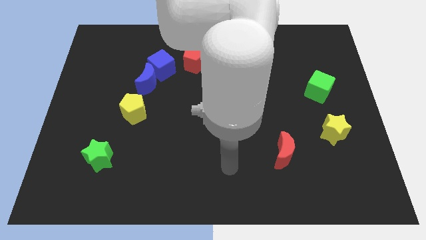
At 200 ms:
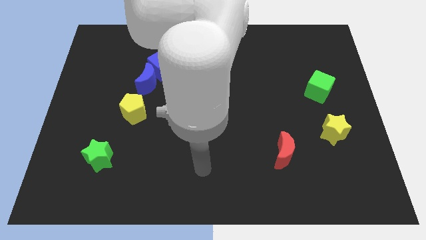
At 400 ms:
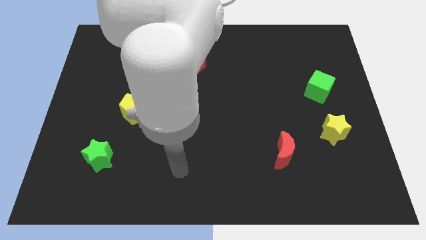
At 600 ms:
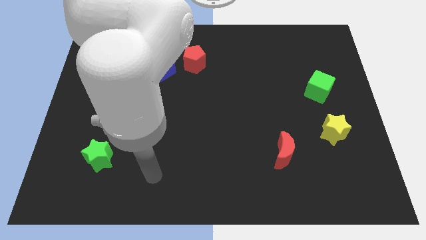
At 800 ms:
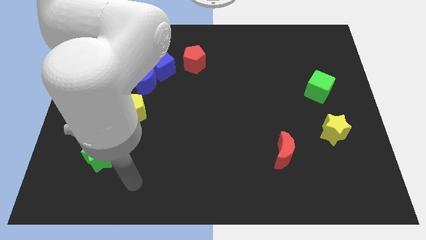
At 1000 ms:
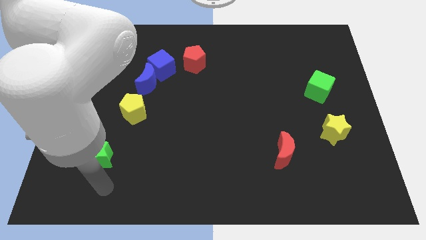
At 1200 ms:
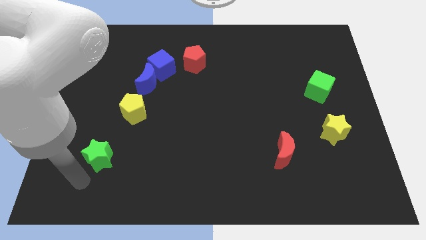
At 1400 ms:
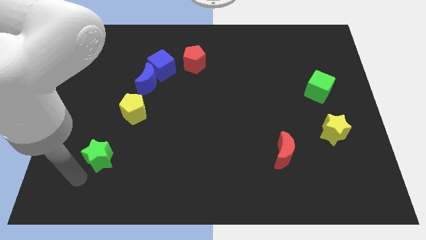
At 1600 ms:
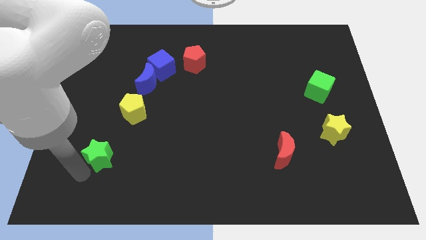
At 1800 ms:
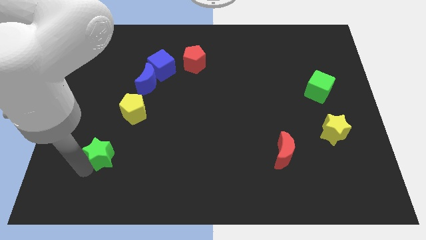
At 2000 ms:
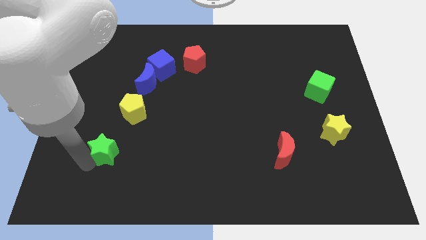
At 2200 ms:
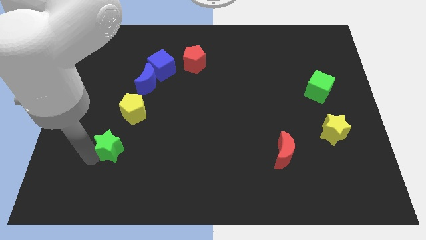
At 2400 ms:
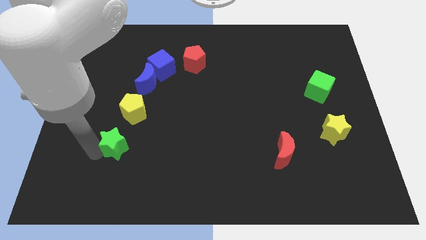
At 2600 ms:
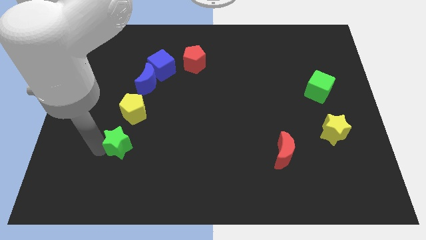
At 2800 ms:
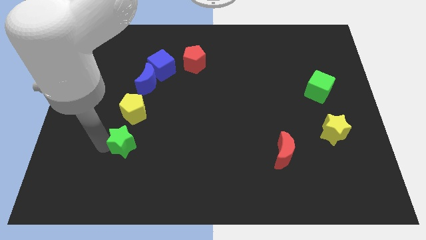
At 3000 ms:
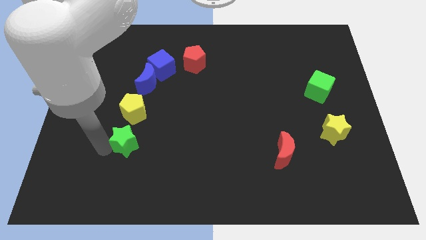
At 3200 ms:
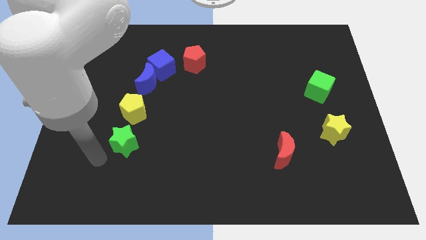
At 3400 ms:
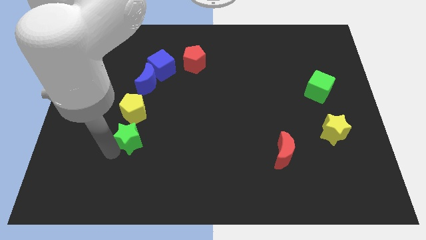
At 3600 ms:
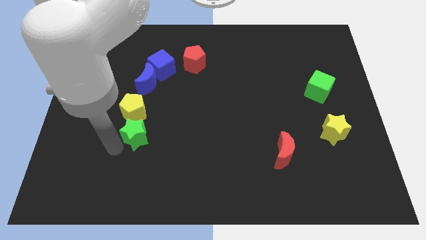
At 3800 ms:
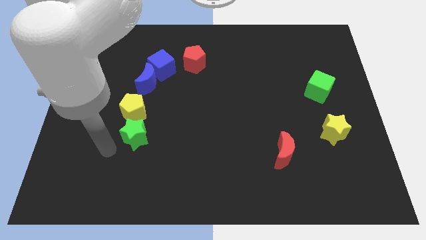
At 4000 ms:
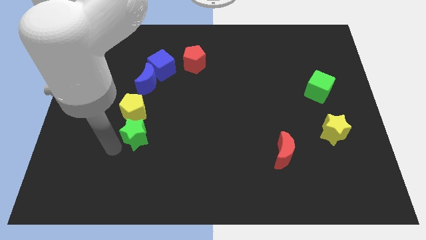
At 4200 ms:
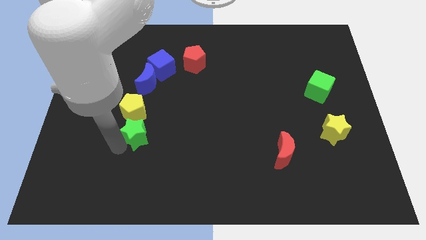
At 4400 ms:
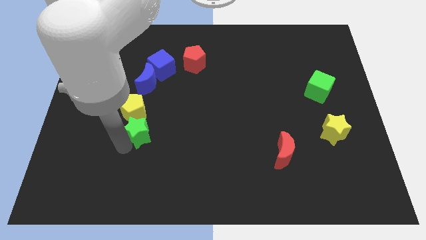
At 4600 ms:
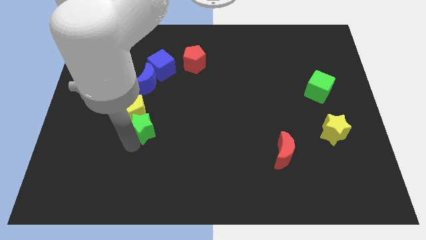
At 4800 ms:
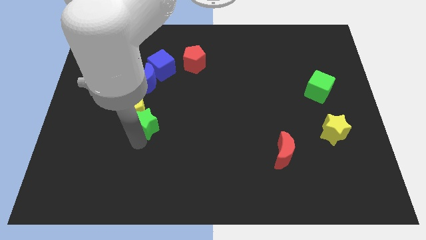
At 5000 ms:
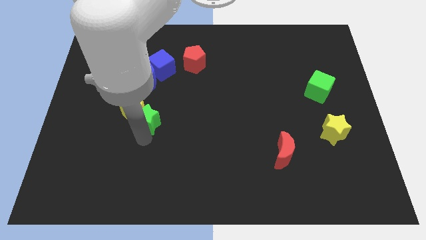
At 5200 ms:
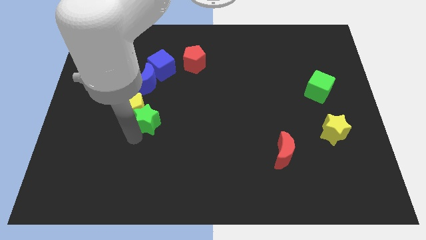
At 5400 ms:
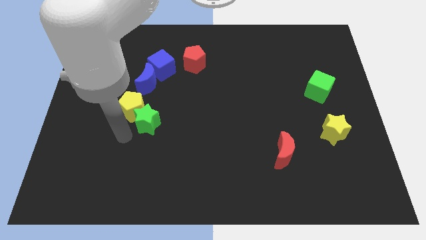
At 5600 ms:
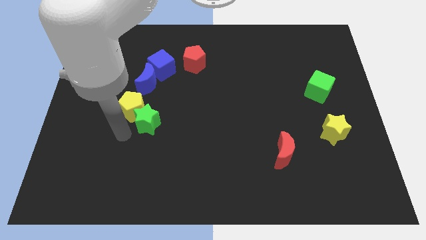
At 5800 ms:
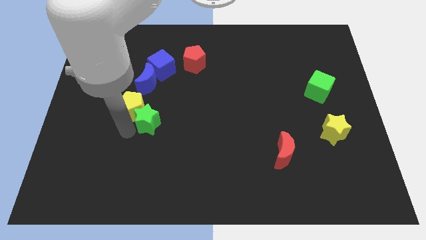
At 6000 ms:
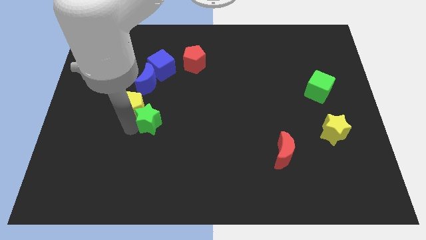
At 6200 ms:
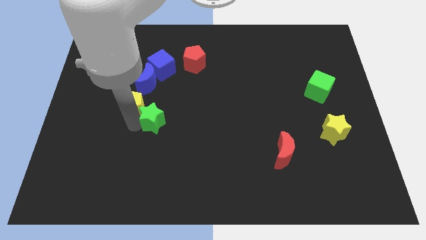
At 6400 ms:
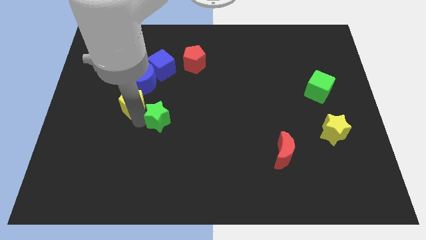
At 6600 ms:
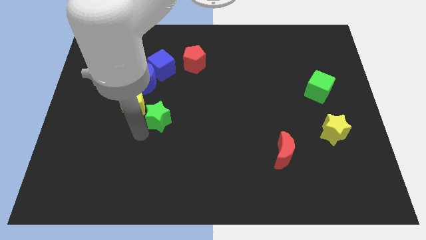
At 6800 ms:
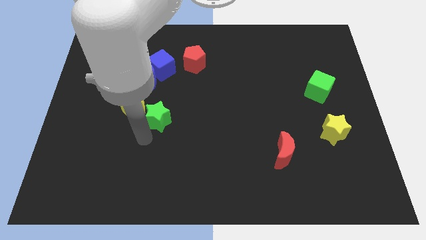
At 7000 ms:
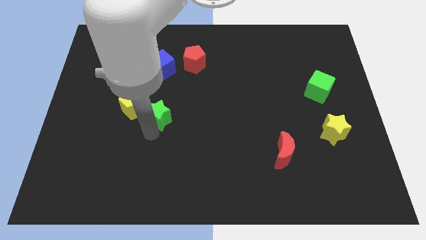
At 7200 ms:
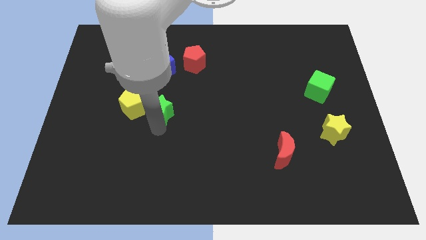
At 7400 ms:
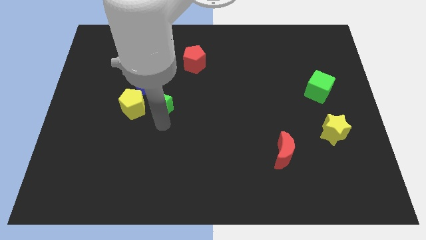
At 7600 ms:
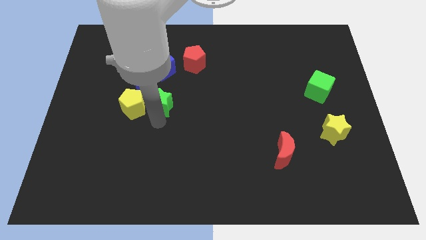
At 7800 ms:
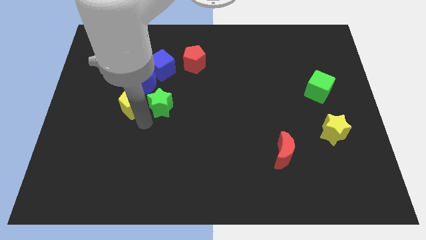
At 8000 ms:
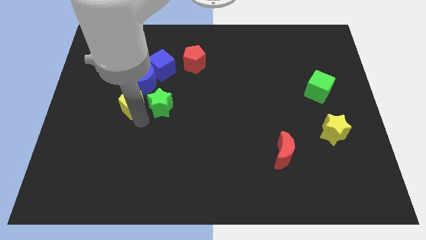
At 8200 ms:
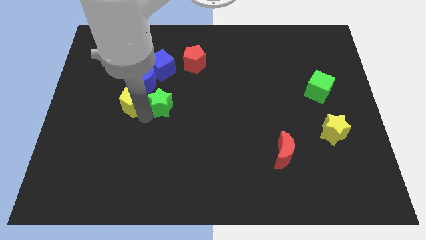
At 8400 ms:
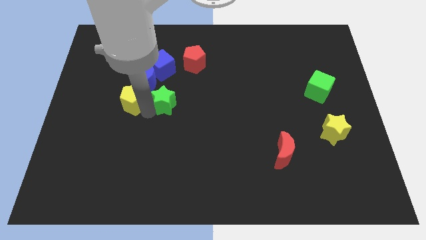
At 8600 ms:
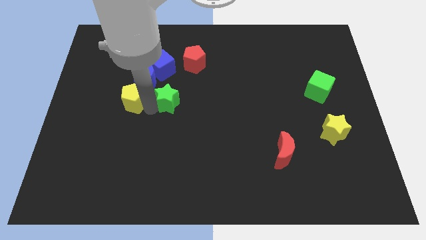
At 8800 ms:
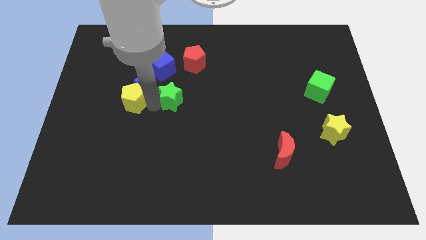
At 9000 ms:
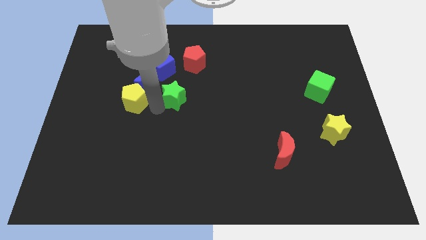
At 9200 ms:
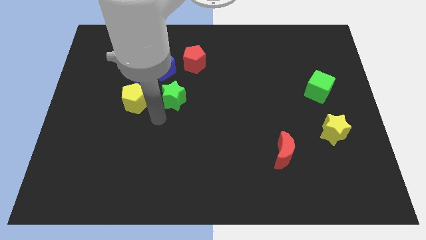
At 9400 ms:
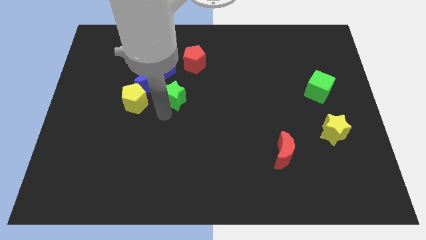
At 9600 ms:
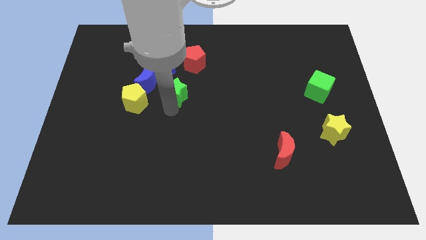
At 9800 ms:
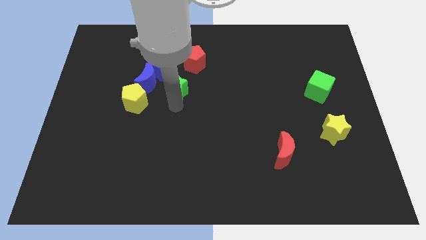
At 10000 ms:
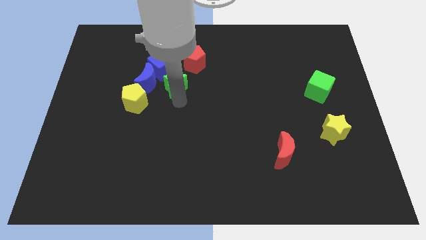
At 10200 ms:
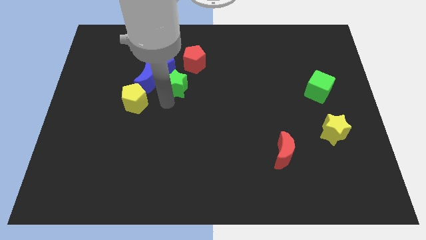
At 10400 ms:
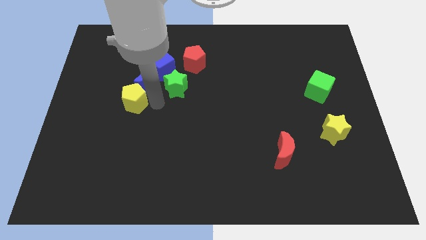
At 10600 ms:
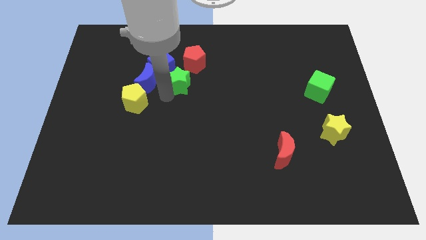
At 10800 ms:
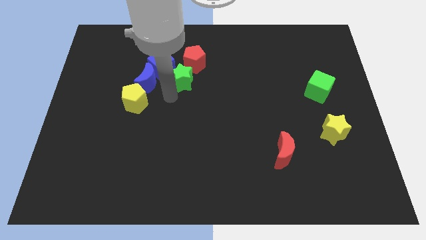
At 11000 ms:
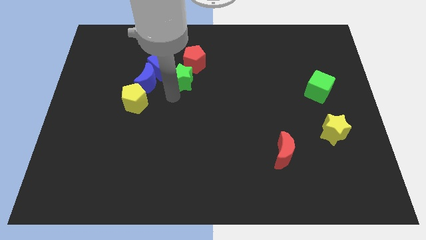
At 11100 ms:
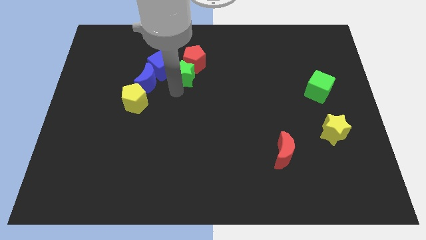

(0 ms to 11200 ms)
move the green star next to the red pentagon

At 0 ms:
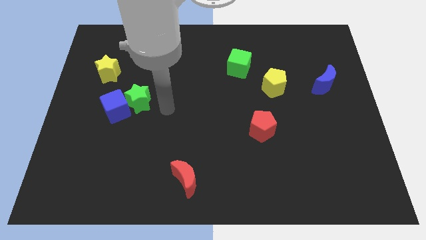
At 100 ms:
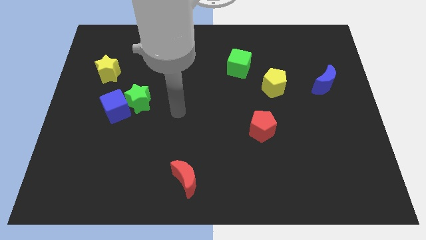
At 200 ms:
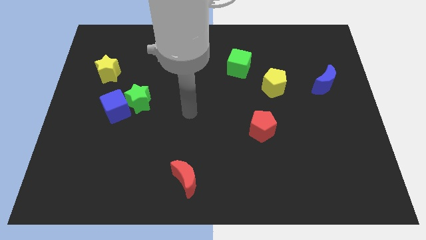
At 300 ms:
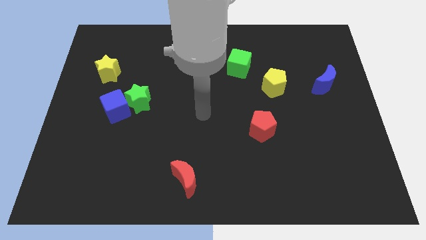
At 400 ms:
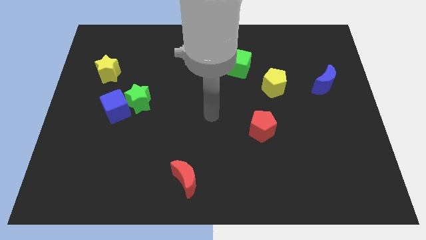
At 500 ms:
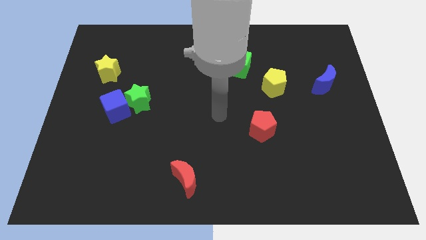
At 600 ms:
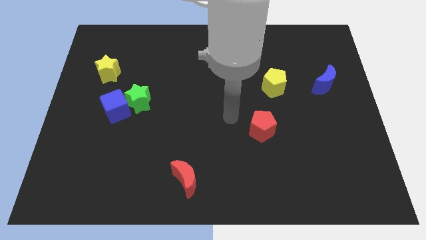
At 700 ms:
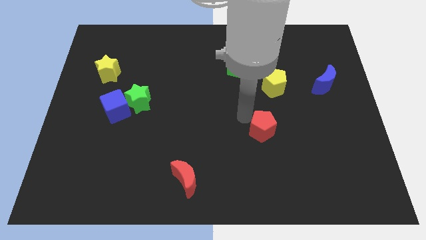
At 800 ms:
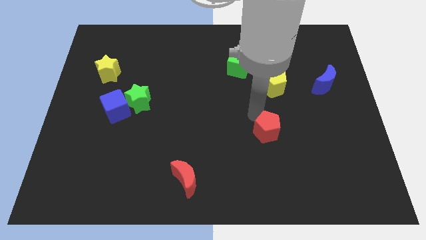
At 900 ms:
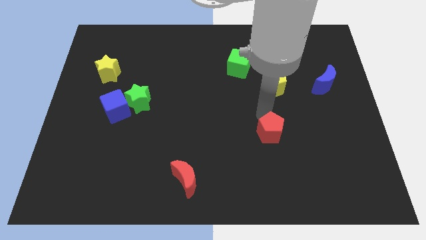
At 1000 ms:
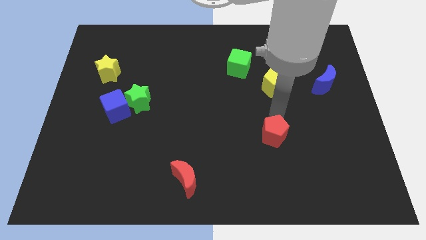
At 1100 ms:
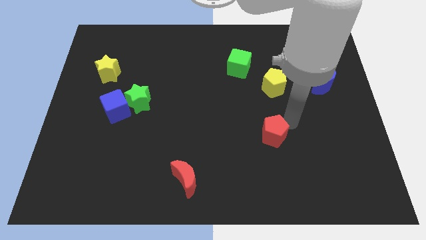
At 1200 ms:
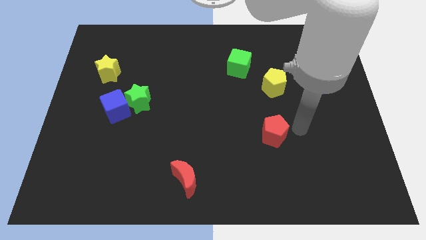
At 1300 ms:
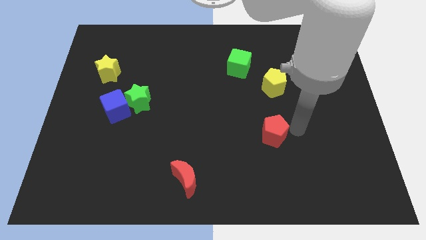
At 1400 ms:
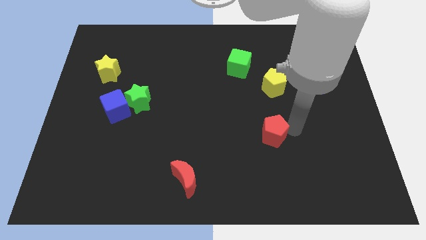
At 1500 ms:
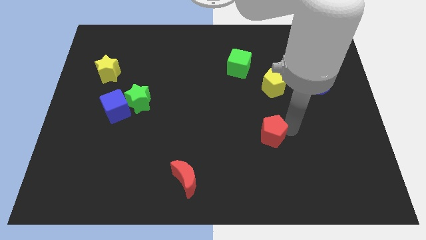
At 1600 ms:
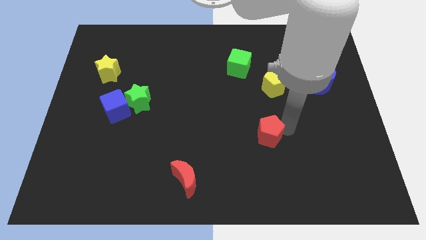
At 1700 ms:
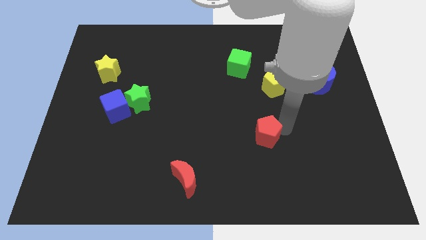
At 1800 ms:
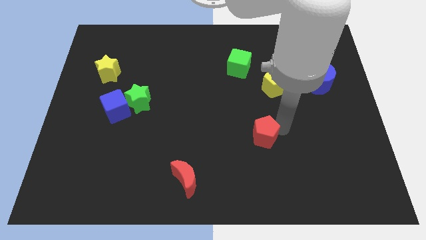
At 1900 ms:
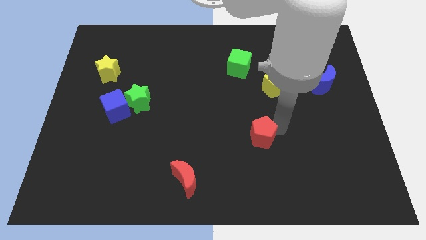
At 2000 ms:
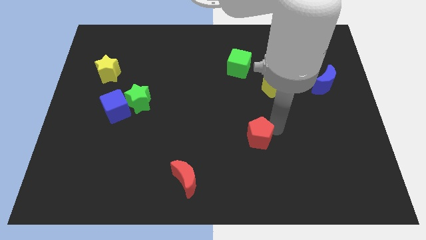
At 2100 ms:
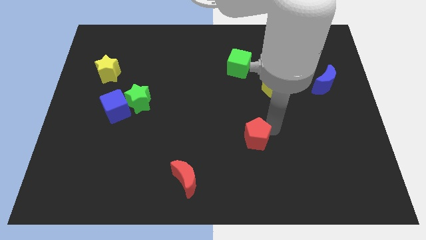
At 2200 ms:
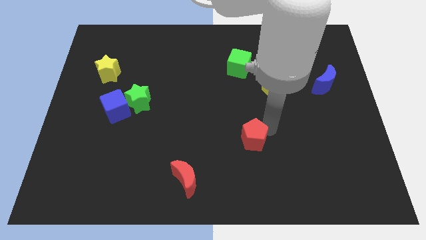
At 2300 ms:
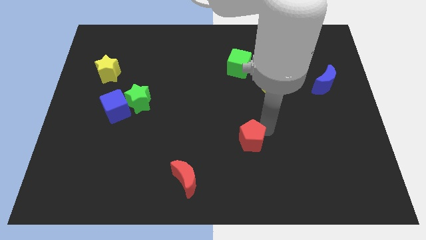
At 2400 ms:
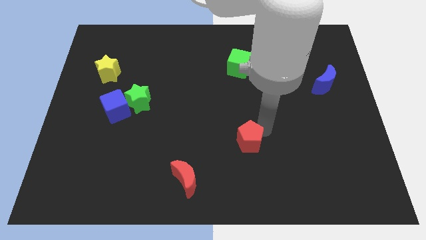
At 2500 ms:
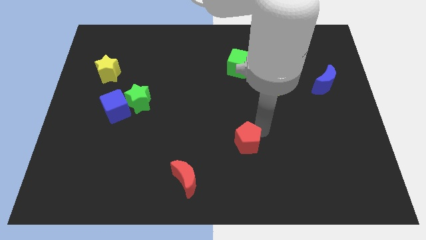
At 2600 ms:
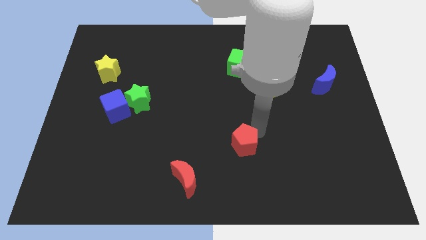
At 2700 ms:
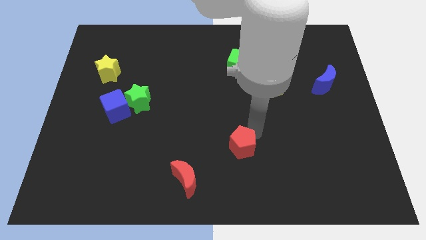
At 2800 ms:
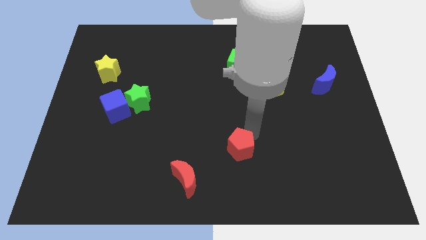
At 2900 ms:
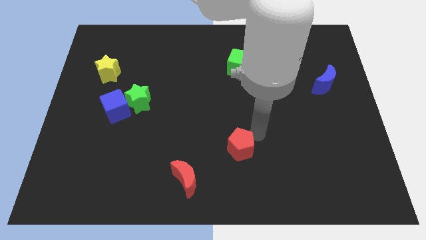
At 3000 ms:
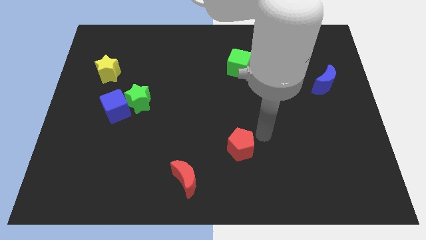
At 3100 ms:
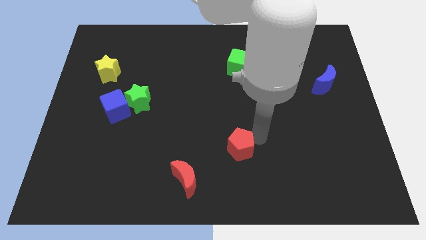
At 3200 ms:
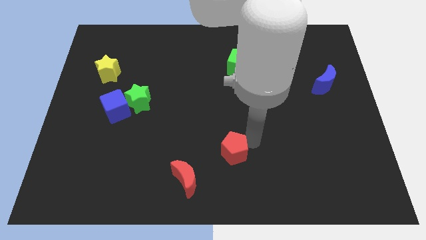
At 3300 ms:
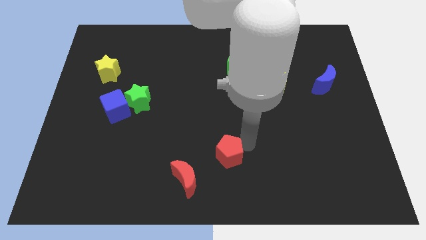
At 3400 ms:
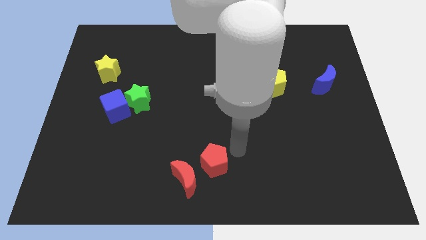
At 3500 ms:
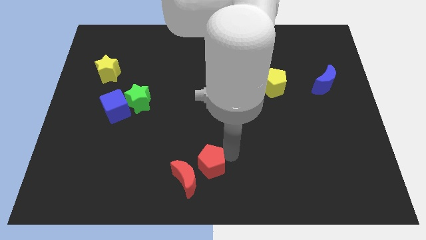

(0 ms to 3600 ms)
put the red pentagon towards the red moon
